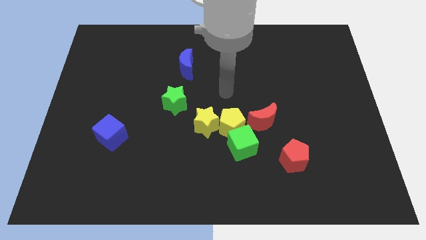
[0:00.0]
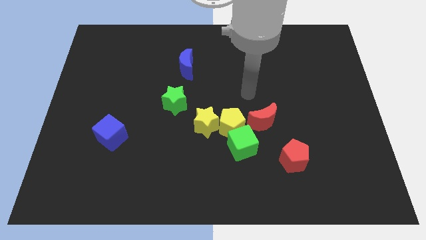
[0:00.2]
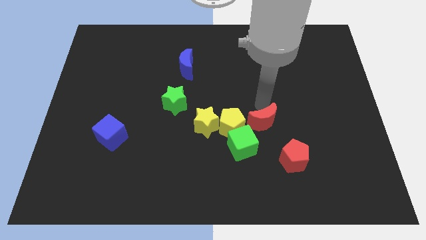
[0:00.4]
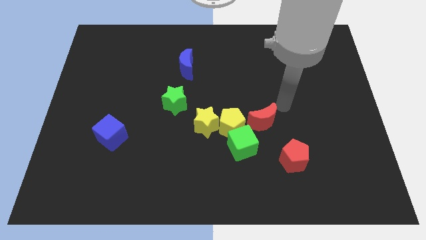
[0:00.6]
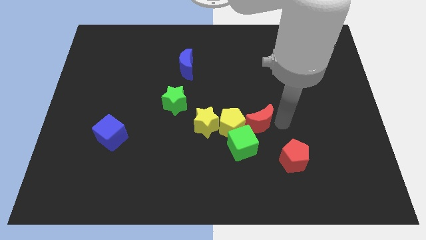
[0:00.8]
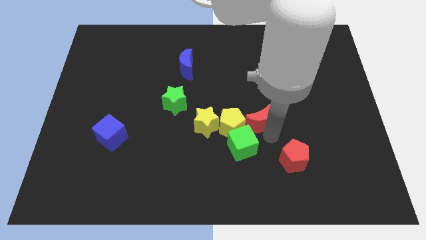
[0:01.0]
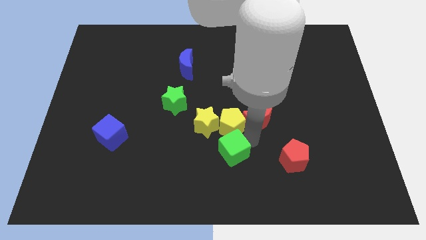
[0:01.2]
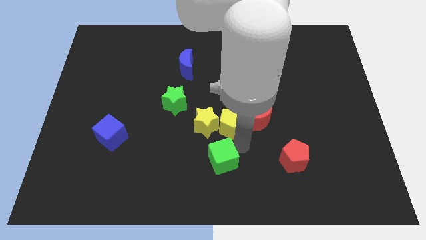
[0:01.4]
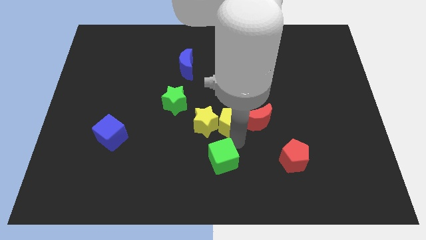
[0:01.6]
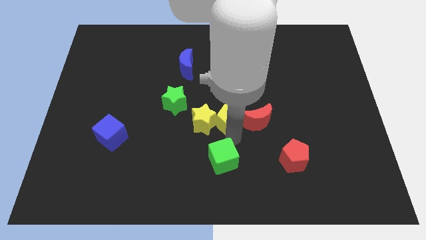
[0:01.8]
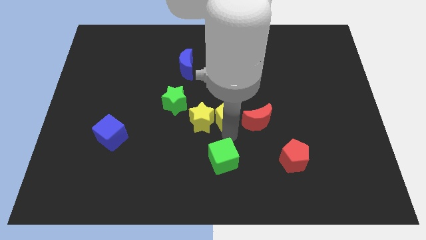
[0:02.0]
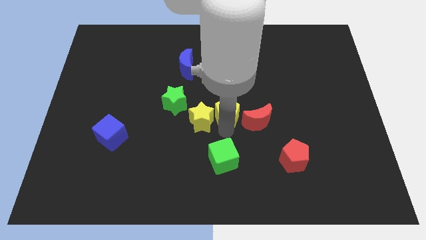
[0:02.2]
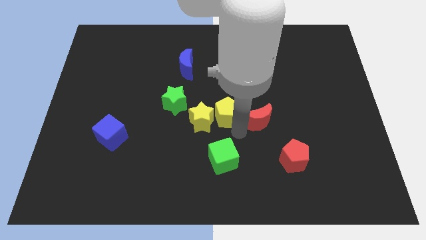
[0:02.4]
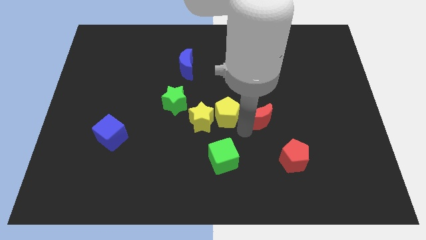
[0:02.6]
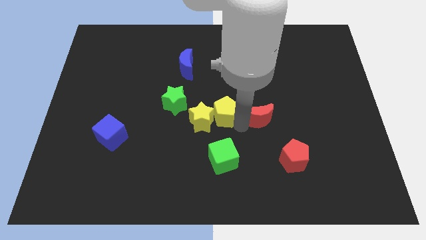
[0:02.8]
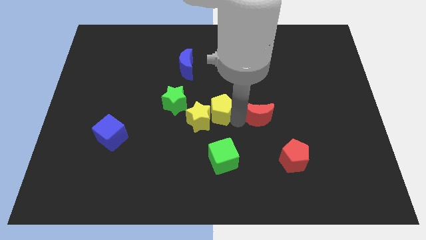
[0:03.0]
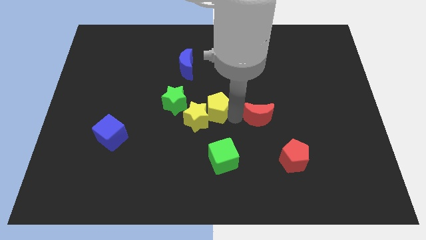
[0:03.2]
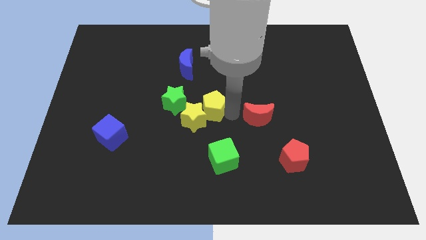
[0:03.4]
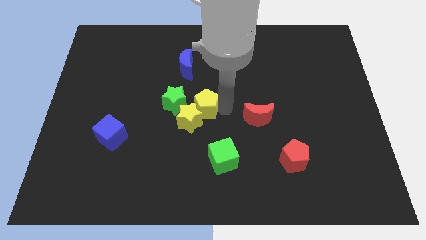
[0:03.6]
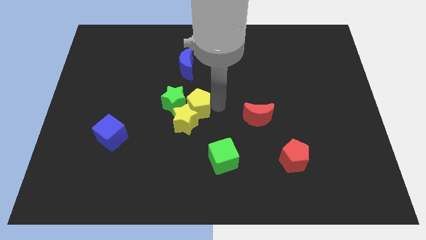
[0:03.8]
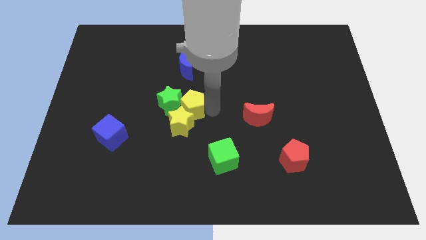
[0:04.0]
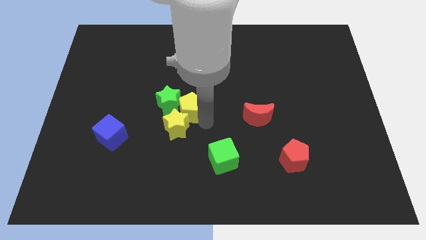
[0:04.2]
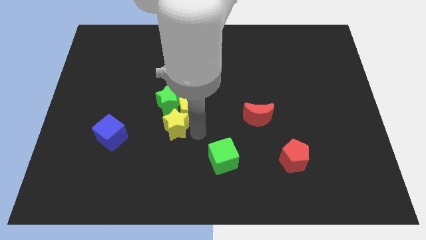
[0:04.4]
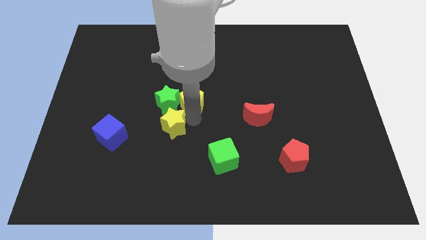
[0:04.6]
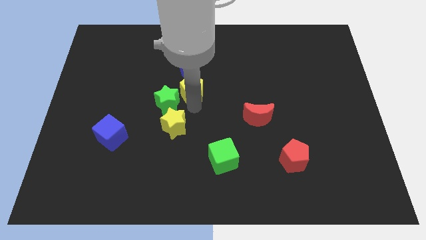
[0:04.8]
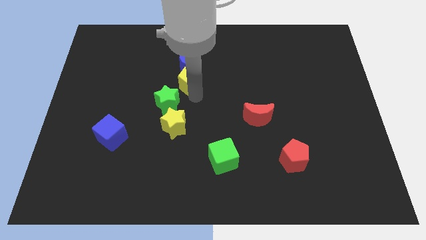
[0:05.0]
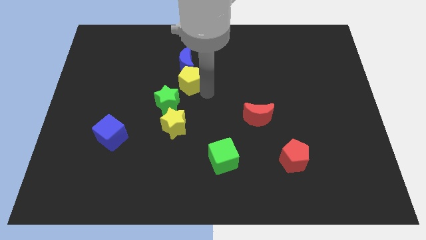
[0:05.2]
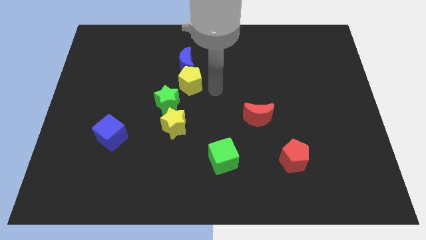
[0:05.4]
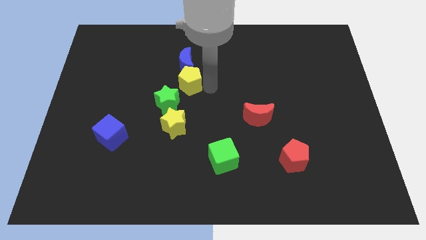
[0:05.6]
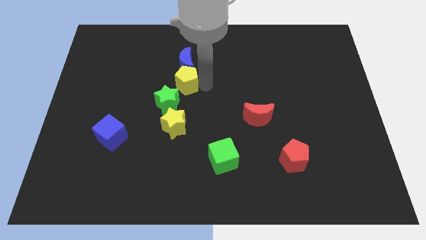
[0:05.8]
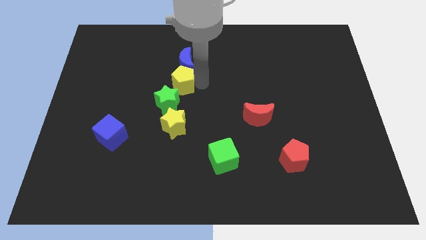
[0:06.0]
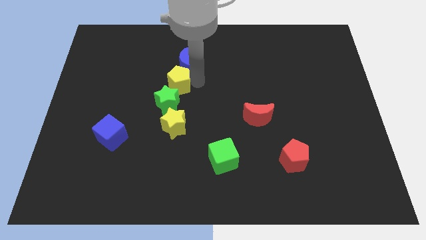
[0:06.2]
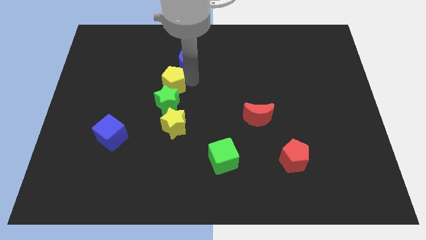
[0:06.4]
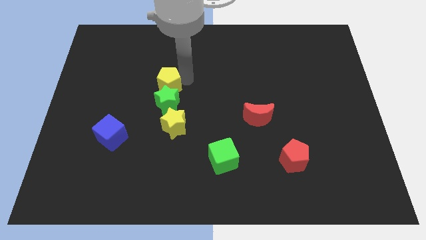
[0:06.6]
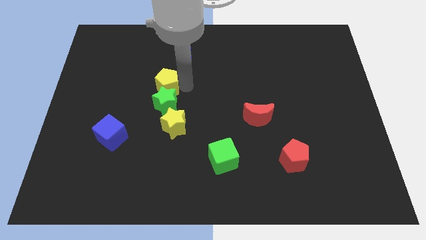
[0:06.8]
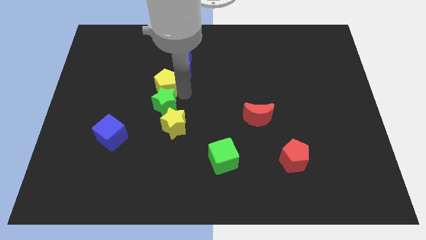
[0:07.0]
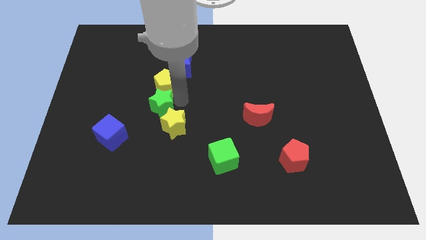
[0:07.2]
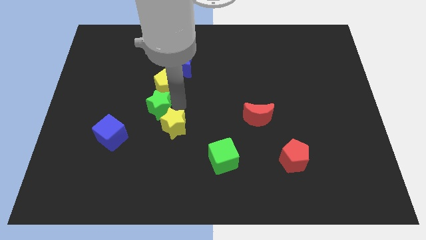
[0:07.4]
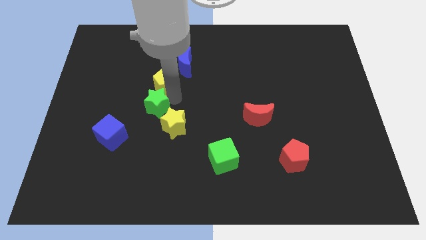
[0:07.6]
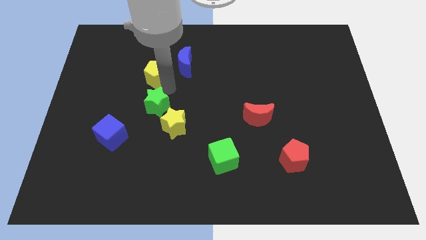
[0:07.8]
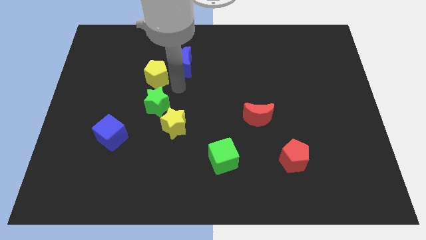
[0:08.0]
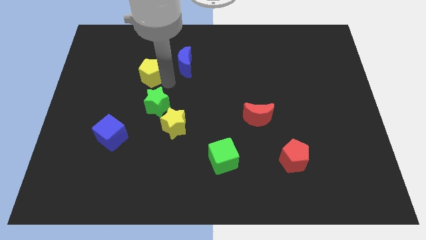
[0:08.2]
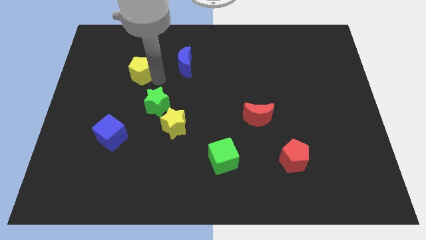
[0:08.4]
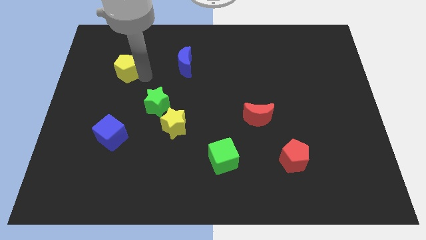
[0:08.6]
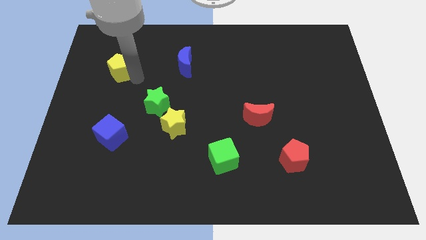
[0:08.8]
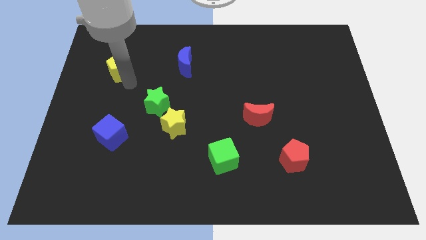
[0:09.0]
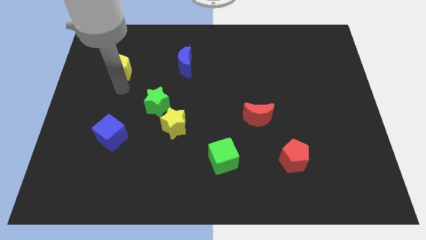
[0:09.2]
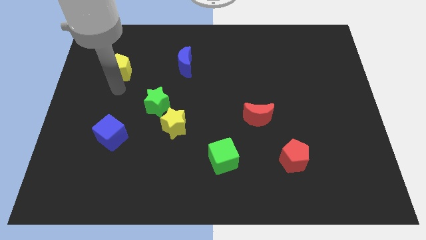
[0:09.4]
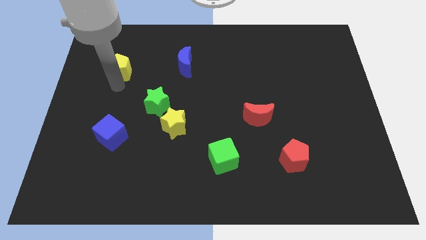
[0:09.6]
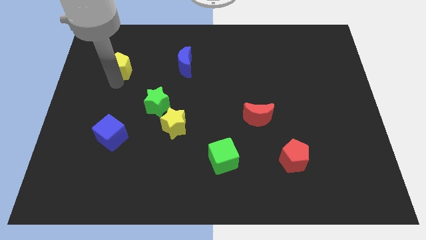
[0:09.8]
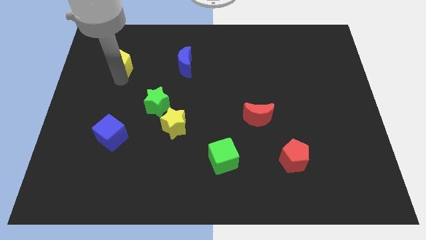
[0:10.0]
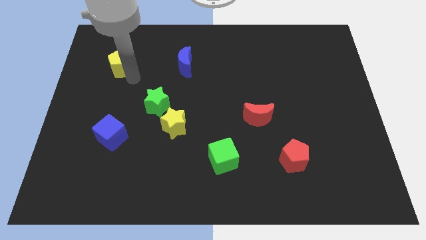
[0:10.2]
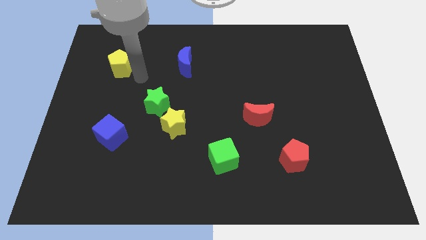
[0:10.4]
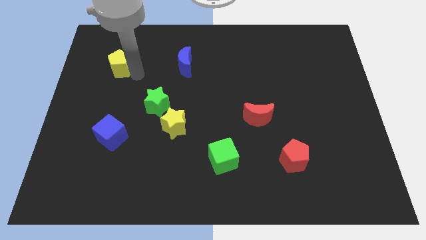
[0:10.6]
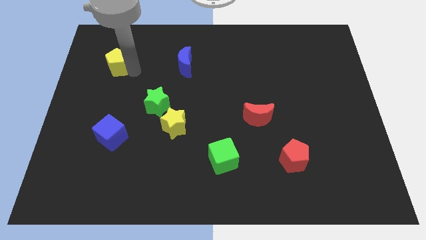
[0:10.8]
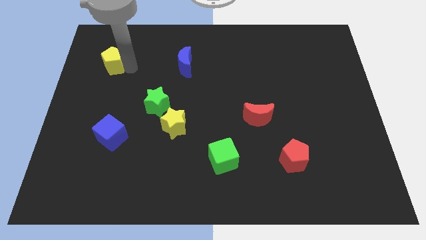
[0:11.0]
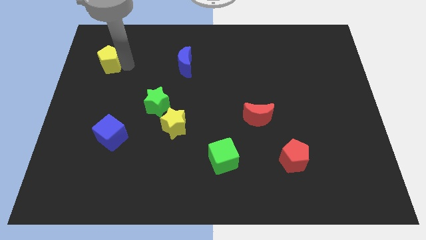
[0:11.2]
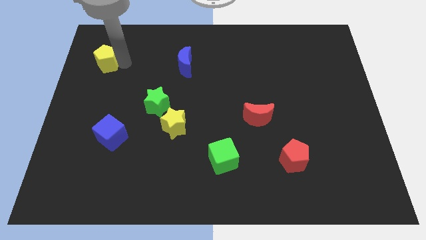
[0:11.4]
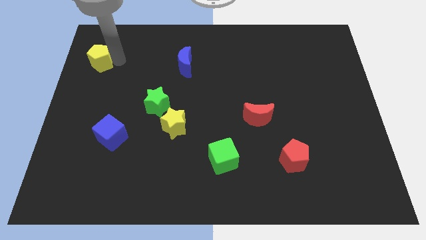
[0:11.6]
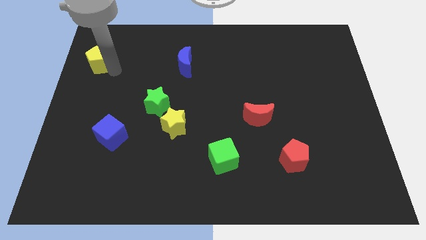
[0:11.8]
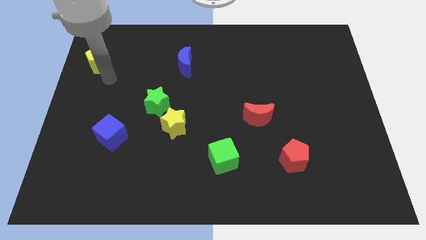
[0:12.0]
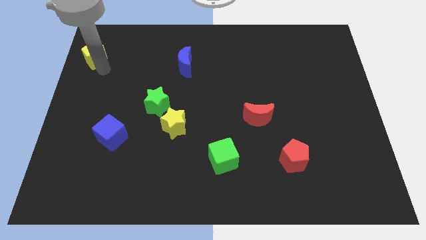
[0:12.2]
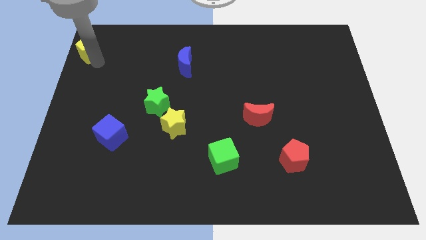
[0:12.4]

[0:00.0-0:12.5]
slide the yellow pentagon to the upper left corner

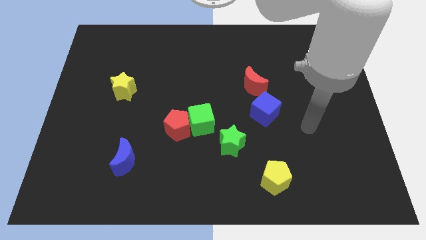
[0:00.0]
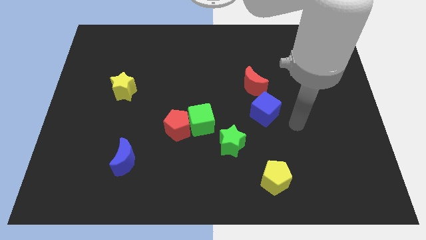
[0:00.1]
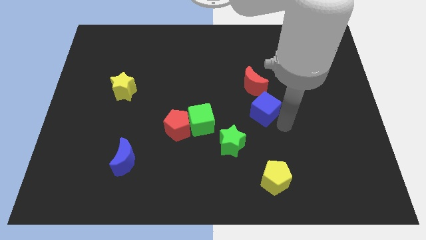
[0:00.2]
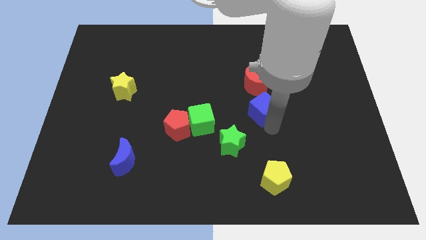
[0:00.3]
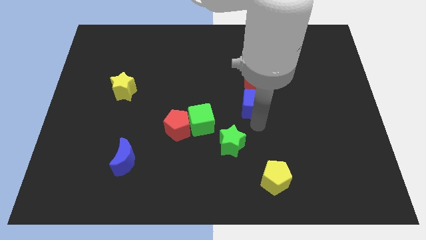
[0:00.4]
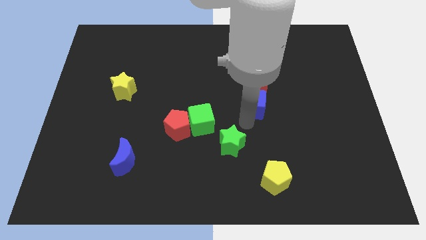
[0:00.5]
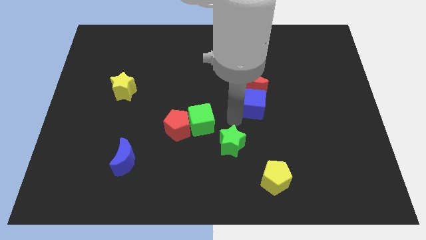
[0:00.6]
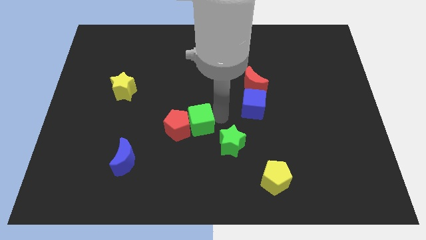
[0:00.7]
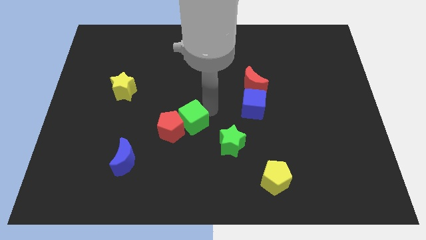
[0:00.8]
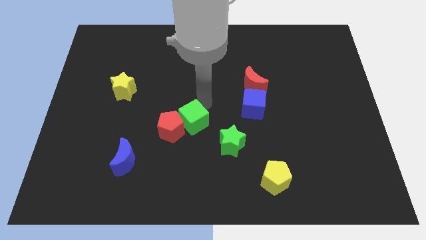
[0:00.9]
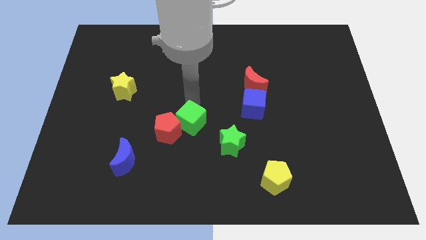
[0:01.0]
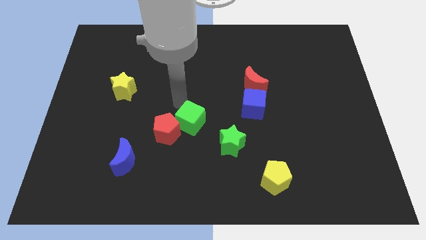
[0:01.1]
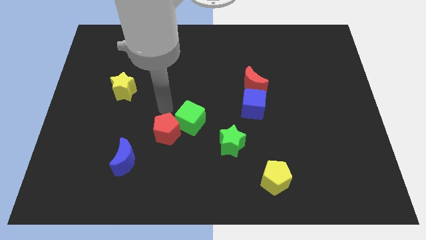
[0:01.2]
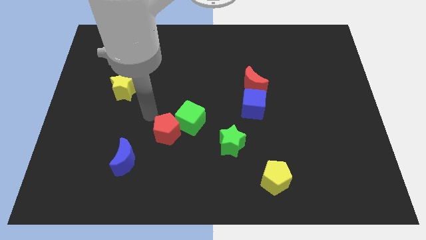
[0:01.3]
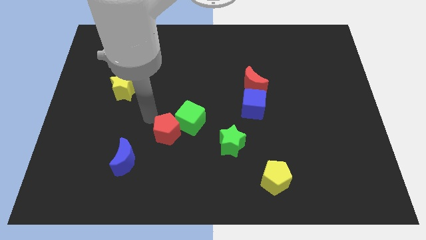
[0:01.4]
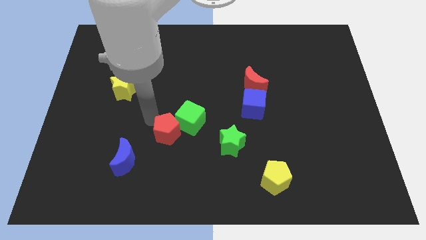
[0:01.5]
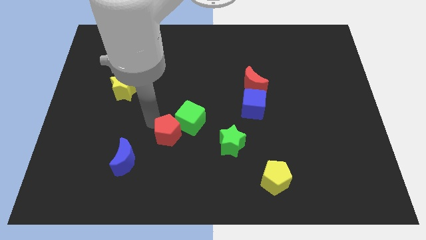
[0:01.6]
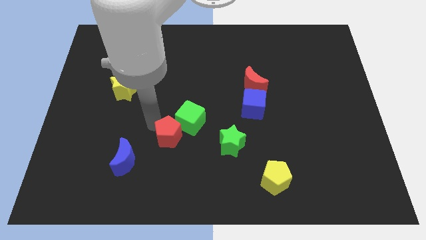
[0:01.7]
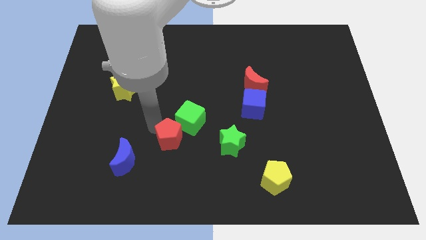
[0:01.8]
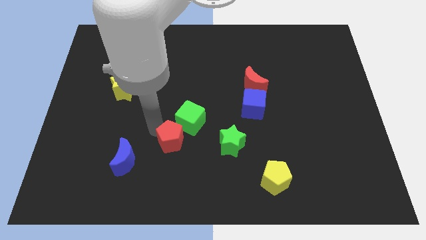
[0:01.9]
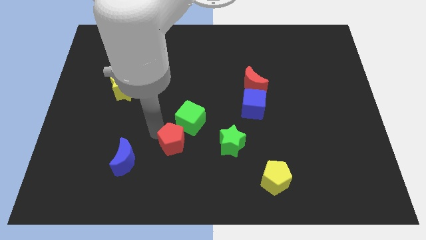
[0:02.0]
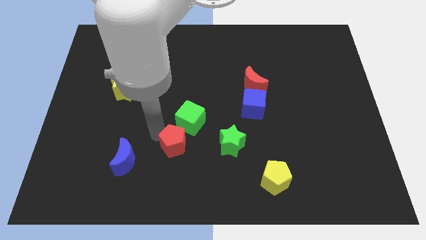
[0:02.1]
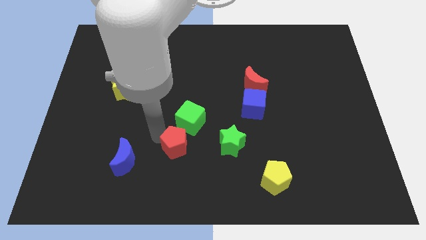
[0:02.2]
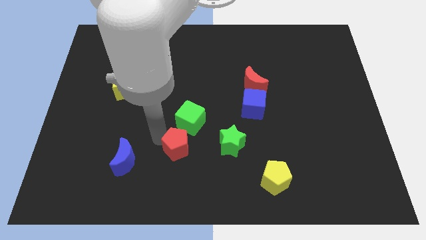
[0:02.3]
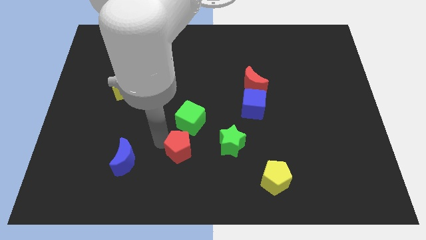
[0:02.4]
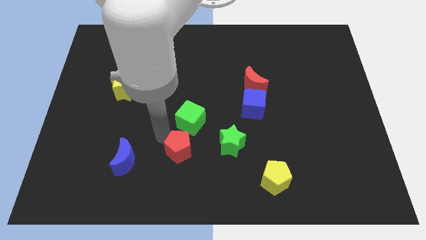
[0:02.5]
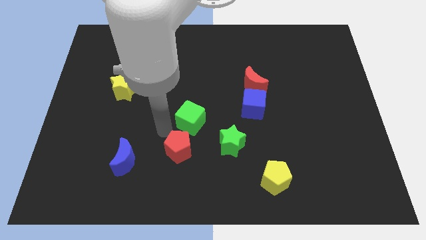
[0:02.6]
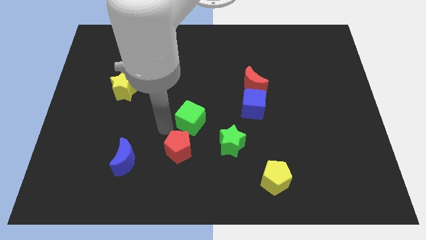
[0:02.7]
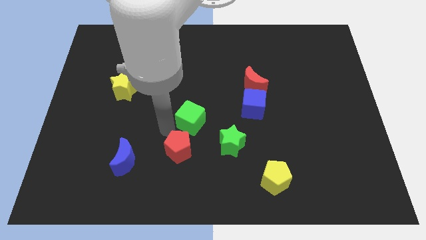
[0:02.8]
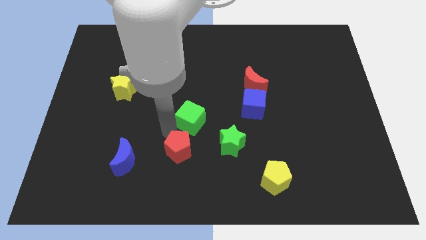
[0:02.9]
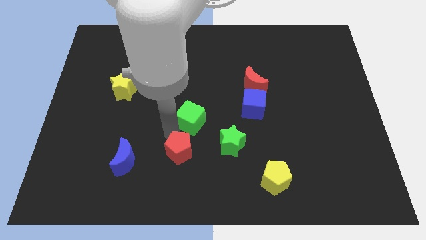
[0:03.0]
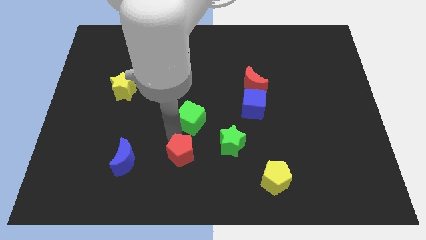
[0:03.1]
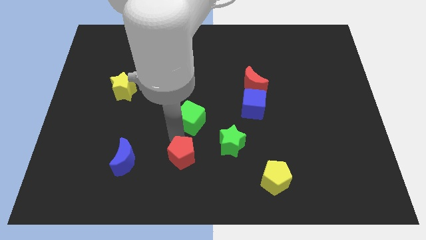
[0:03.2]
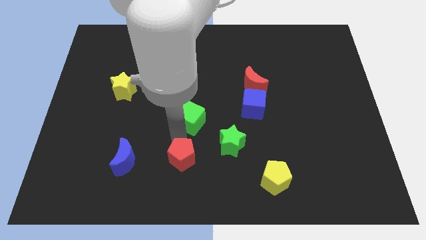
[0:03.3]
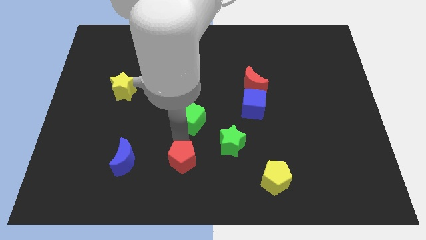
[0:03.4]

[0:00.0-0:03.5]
move the red pentagon to the bottom
